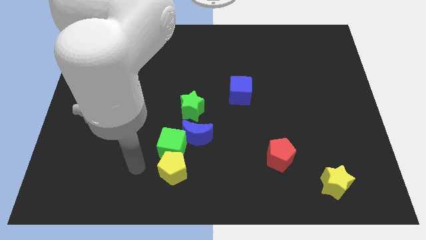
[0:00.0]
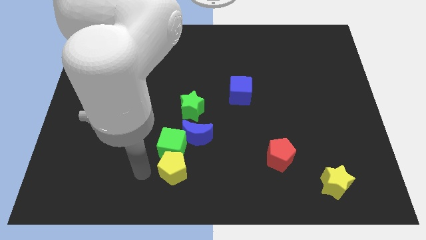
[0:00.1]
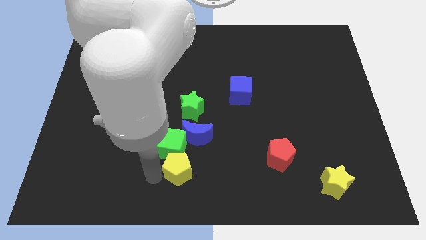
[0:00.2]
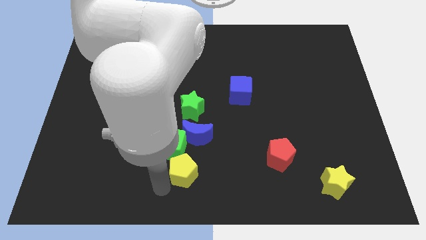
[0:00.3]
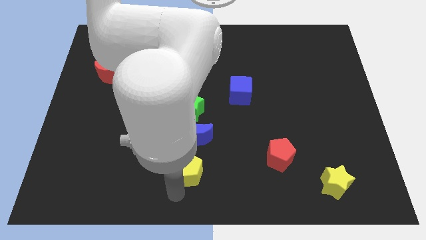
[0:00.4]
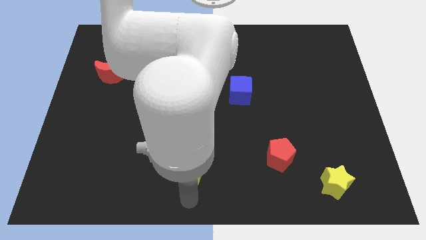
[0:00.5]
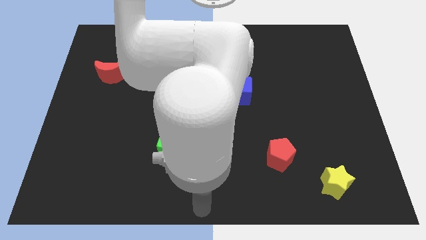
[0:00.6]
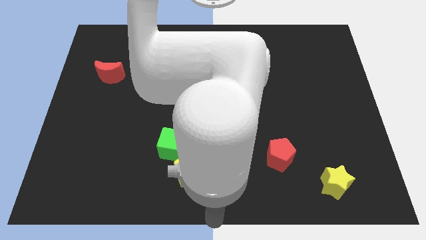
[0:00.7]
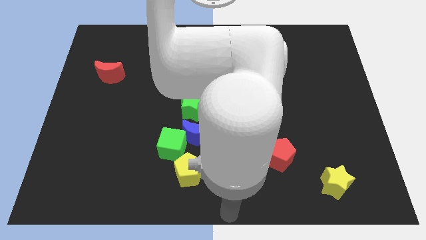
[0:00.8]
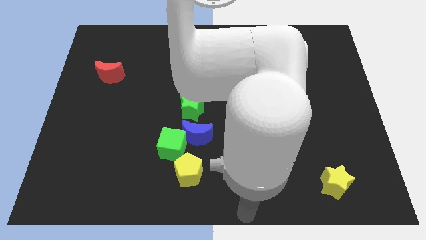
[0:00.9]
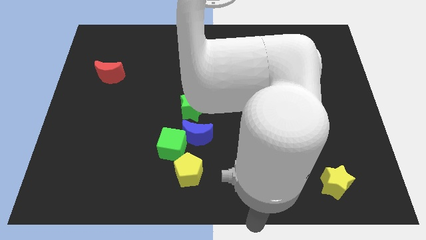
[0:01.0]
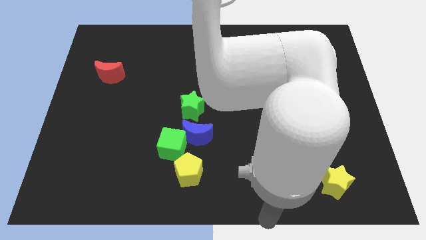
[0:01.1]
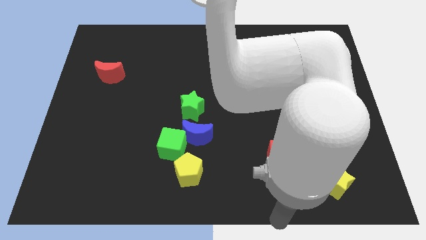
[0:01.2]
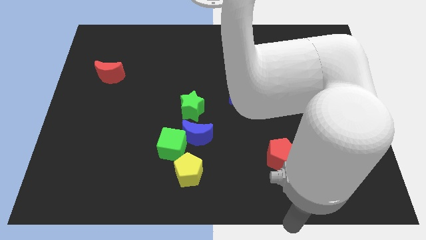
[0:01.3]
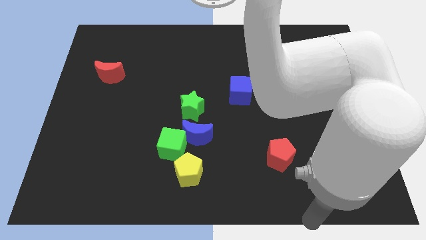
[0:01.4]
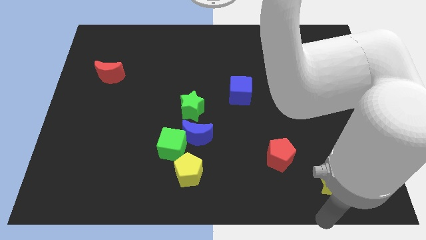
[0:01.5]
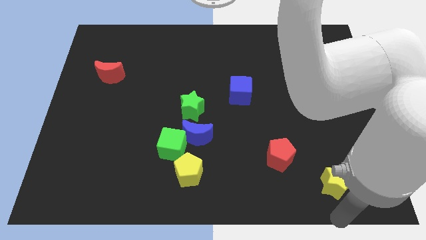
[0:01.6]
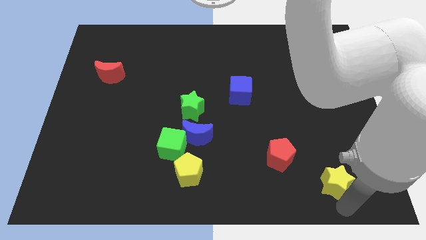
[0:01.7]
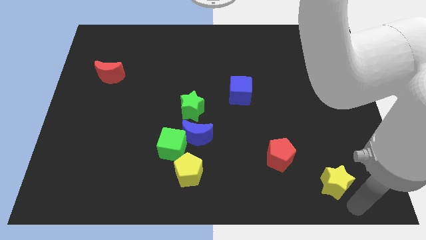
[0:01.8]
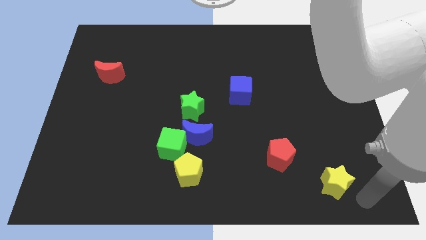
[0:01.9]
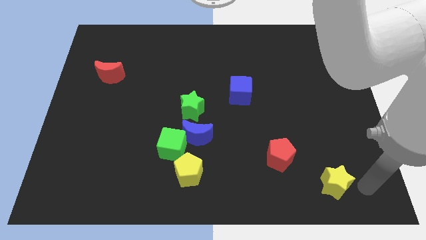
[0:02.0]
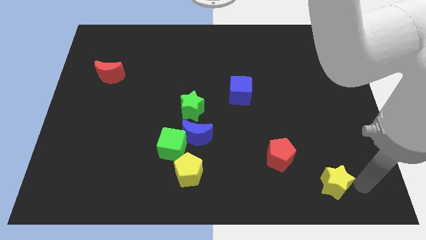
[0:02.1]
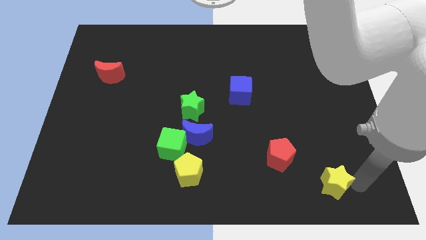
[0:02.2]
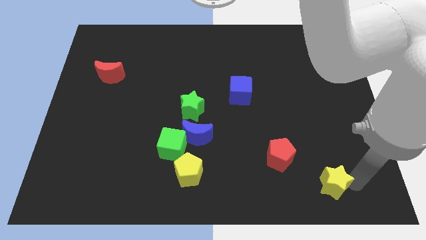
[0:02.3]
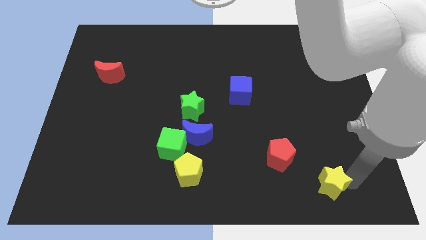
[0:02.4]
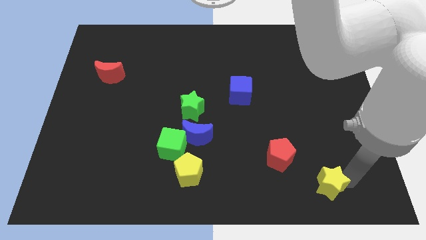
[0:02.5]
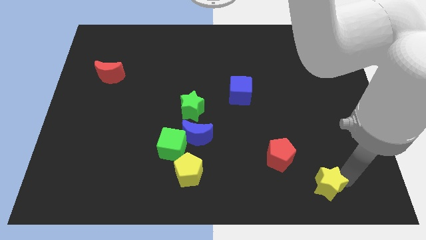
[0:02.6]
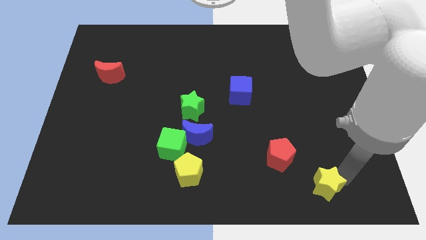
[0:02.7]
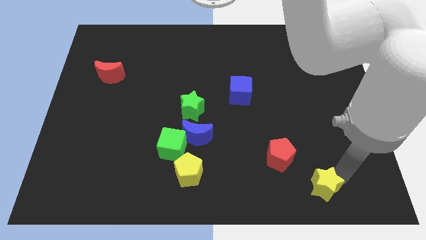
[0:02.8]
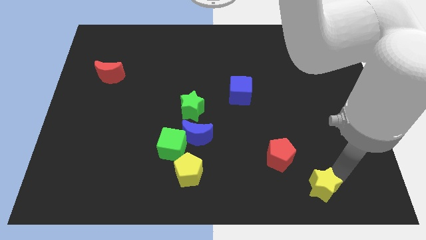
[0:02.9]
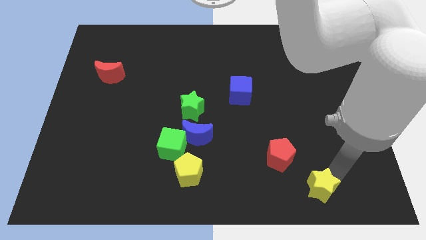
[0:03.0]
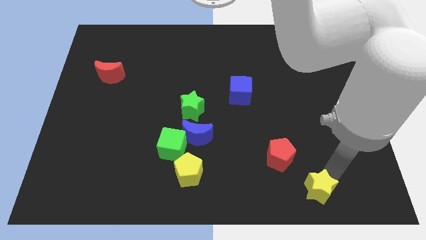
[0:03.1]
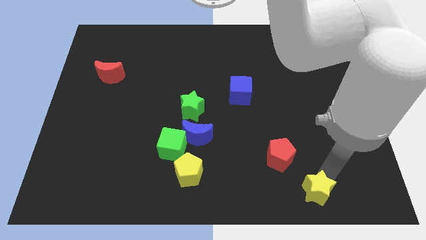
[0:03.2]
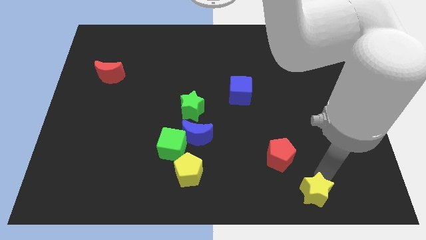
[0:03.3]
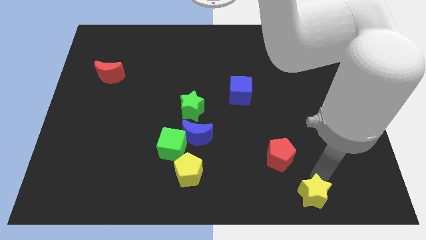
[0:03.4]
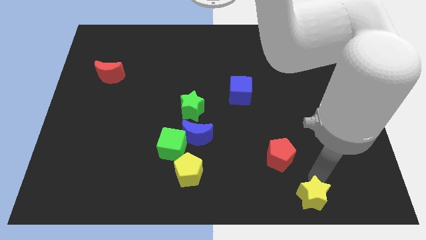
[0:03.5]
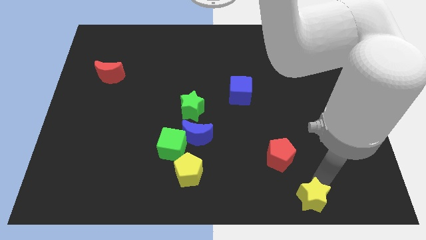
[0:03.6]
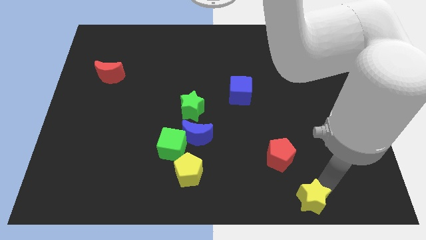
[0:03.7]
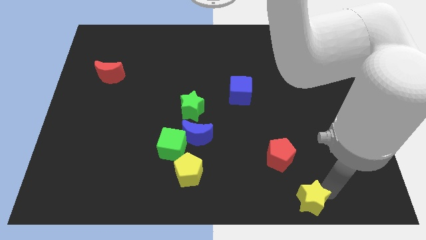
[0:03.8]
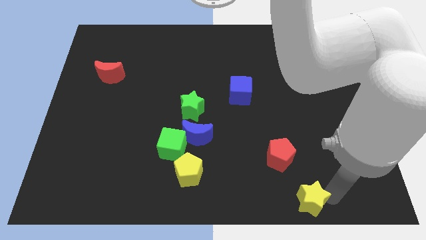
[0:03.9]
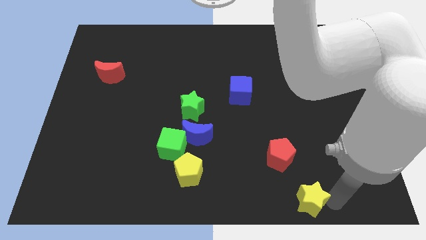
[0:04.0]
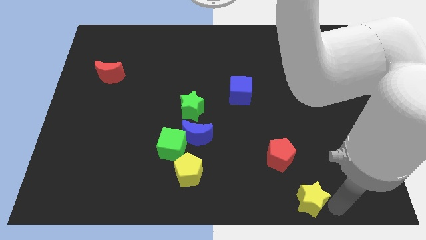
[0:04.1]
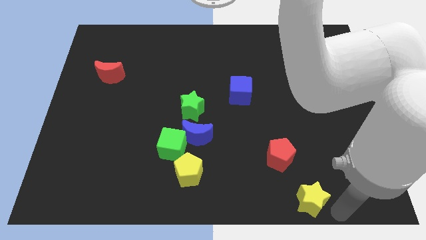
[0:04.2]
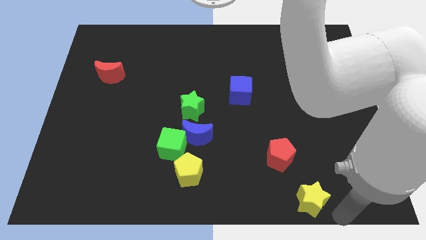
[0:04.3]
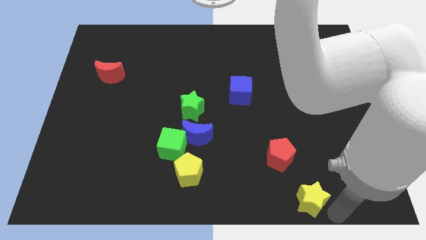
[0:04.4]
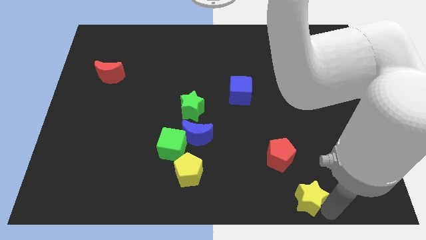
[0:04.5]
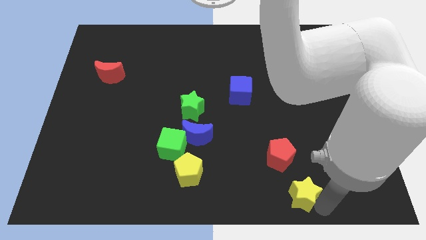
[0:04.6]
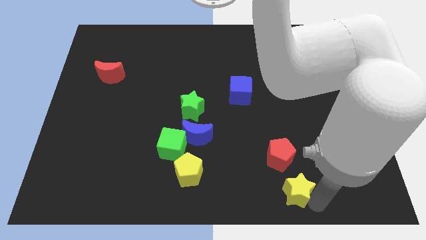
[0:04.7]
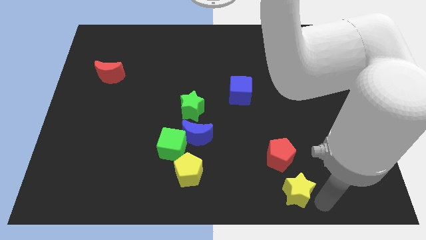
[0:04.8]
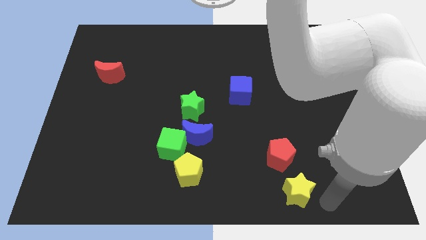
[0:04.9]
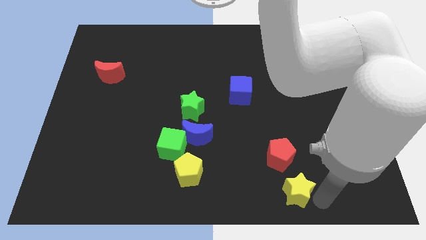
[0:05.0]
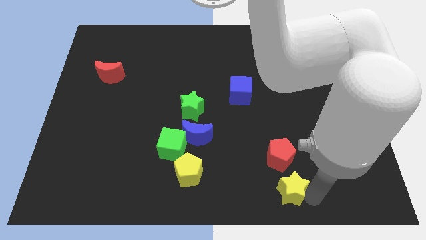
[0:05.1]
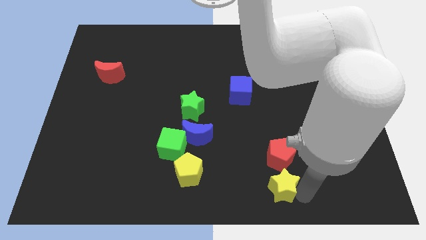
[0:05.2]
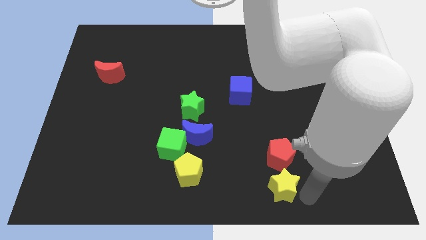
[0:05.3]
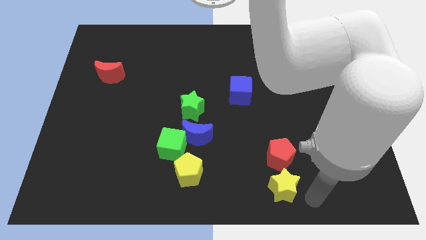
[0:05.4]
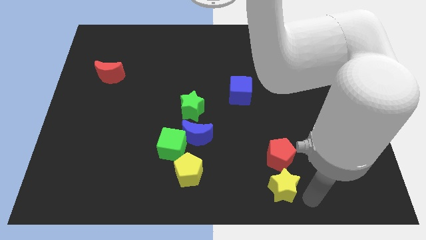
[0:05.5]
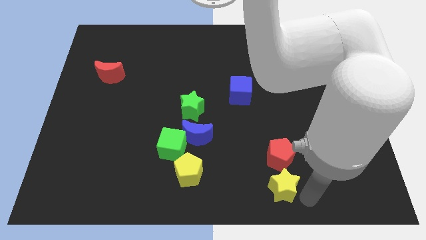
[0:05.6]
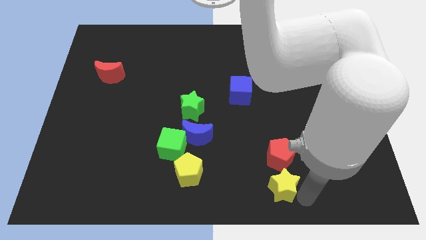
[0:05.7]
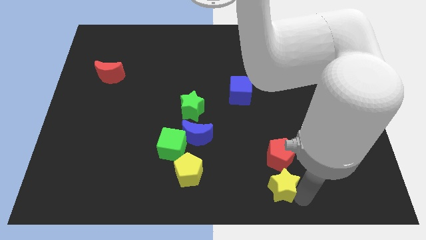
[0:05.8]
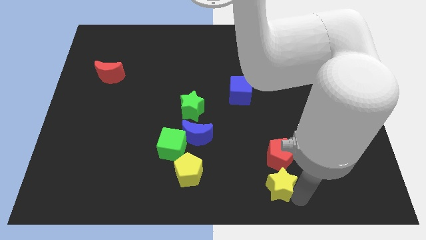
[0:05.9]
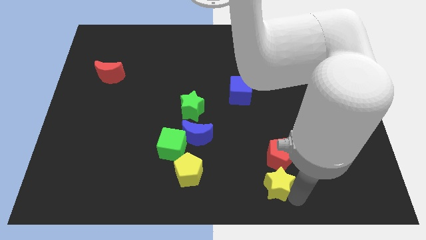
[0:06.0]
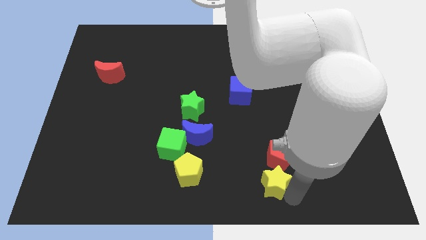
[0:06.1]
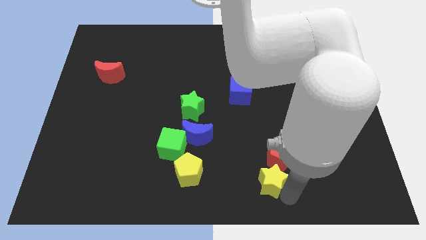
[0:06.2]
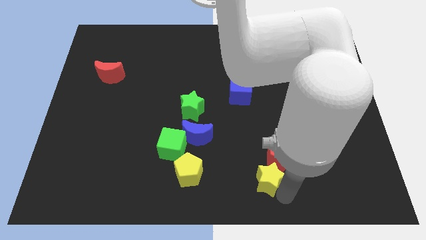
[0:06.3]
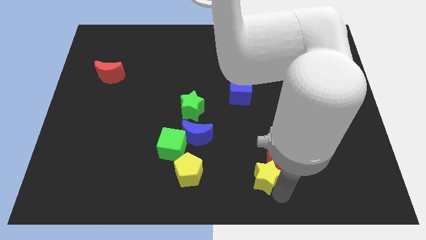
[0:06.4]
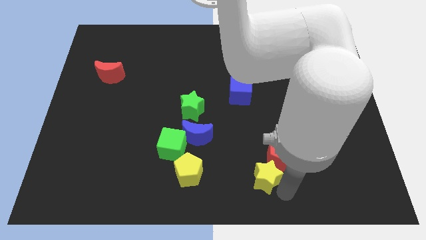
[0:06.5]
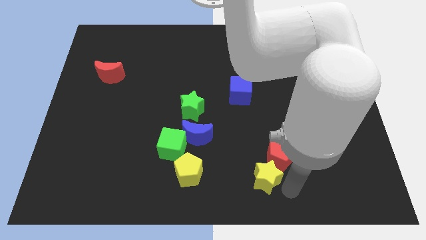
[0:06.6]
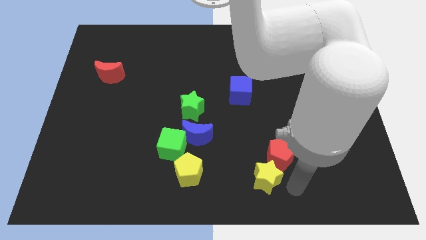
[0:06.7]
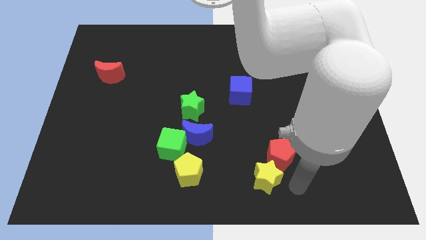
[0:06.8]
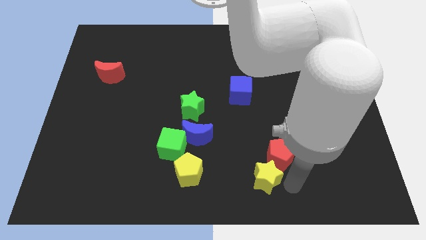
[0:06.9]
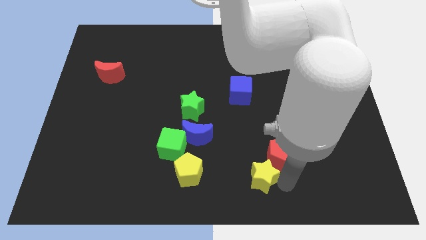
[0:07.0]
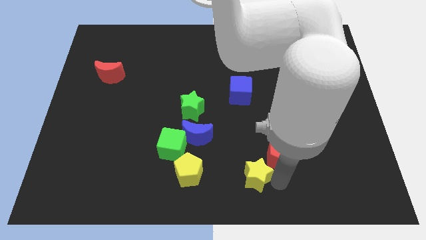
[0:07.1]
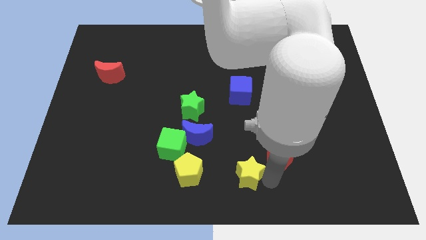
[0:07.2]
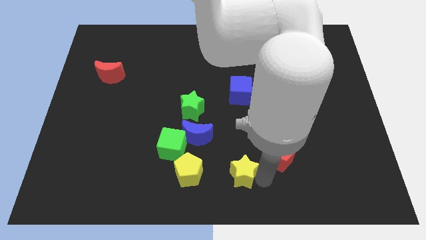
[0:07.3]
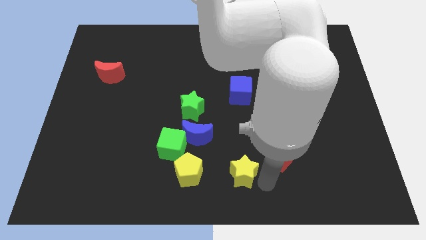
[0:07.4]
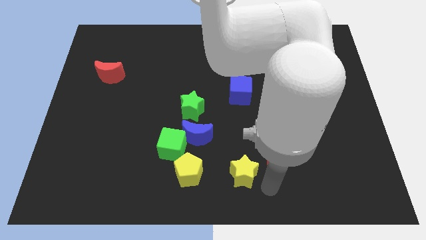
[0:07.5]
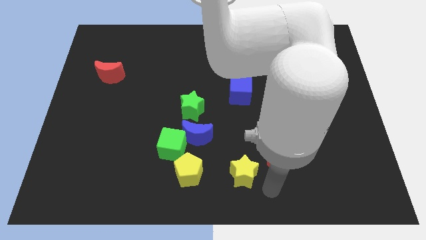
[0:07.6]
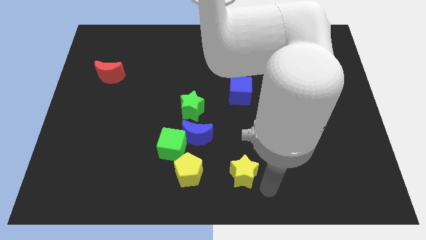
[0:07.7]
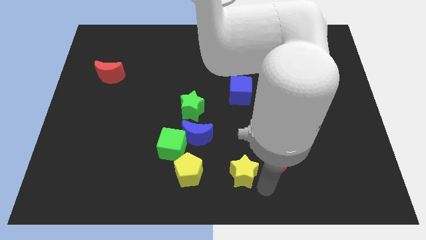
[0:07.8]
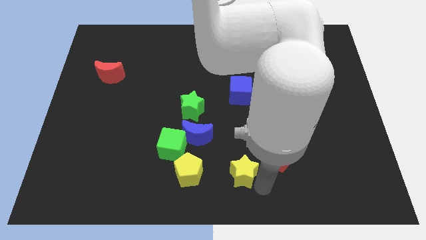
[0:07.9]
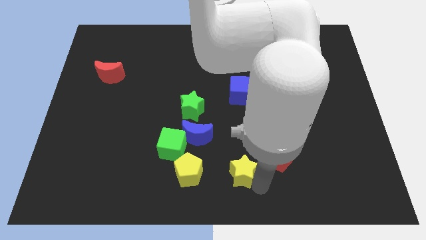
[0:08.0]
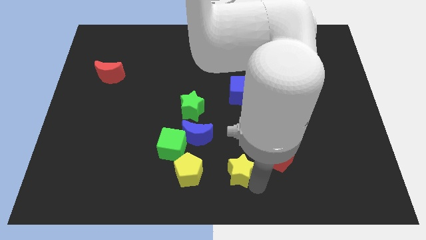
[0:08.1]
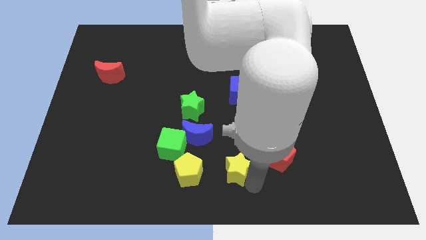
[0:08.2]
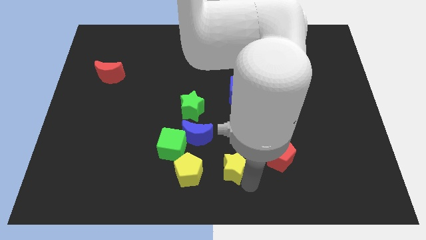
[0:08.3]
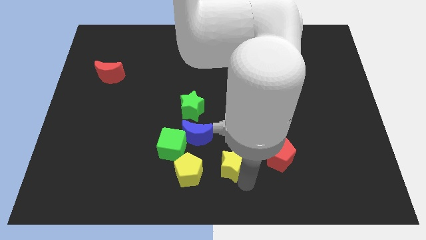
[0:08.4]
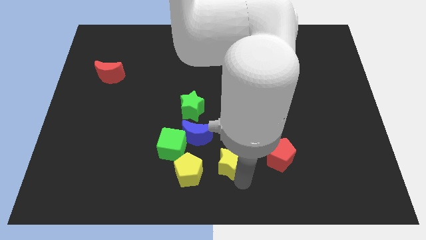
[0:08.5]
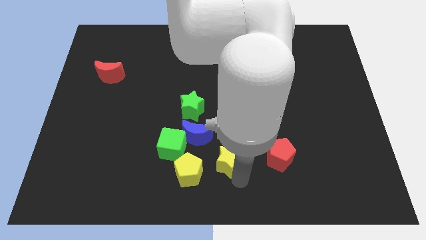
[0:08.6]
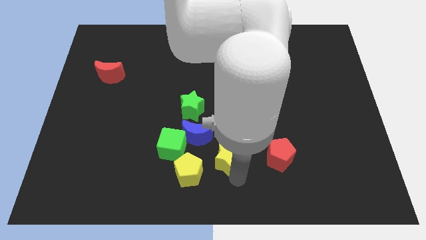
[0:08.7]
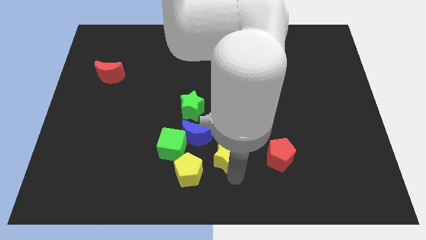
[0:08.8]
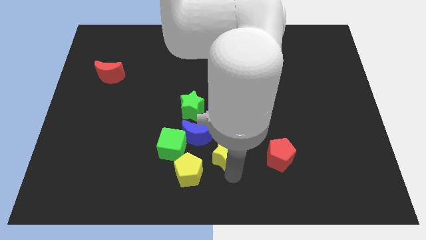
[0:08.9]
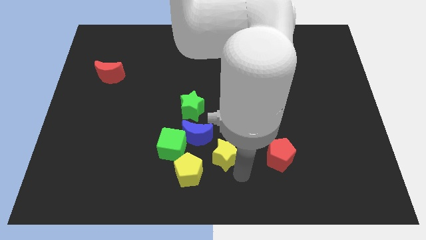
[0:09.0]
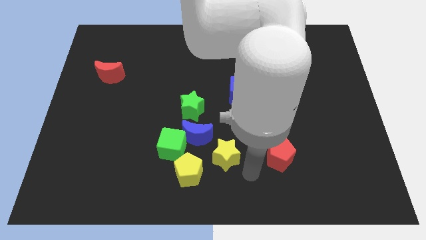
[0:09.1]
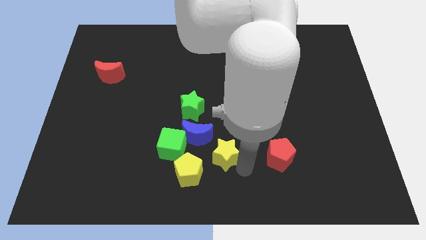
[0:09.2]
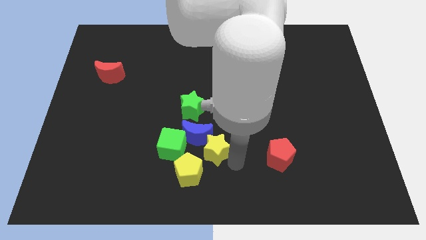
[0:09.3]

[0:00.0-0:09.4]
move the yellow star to the blue moon
